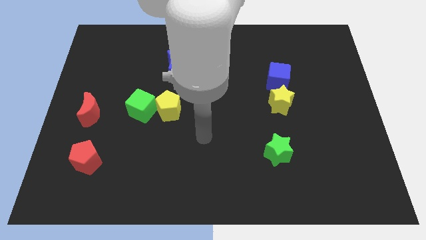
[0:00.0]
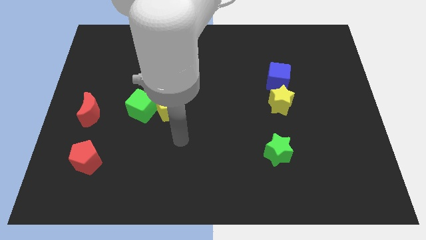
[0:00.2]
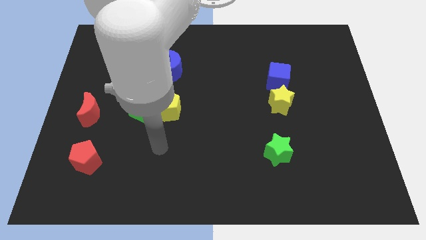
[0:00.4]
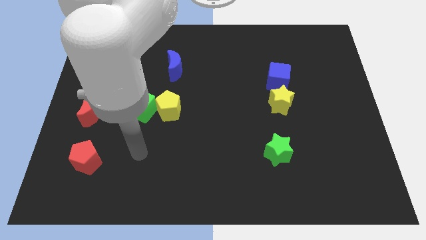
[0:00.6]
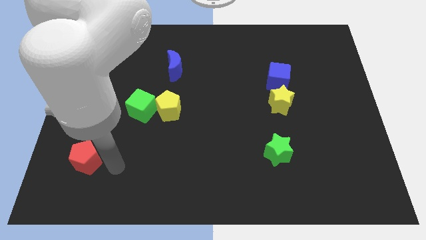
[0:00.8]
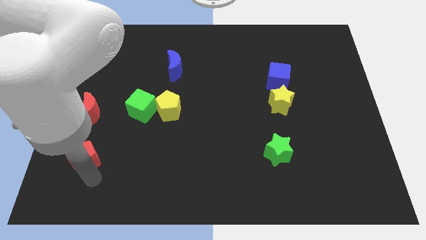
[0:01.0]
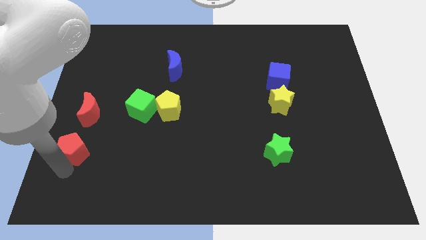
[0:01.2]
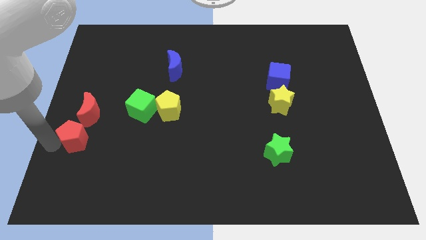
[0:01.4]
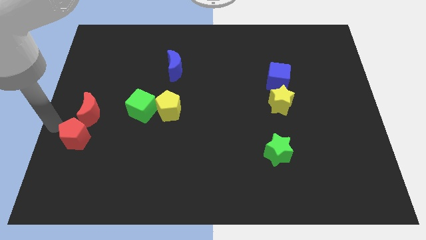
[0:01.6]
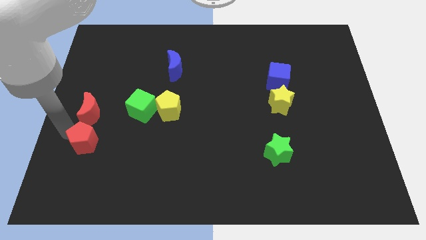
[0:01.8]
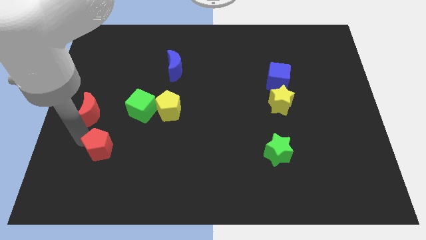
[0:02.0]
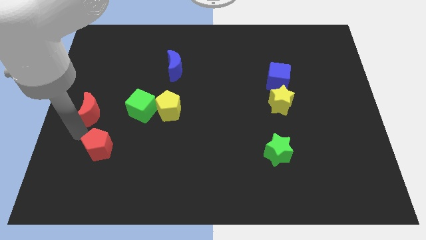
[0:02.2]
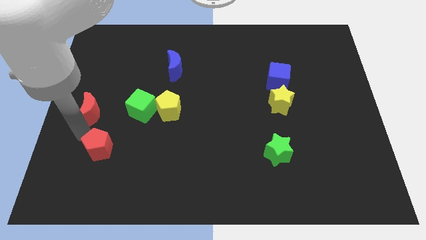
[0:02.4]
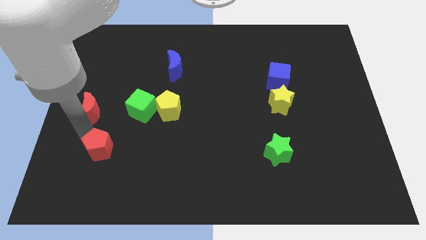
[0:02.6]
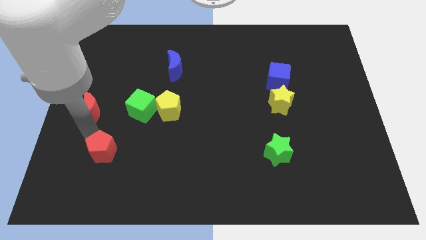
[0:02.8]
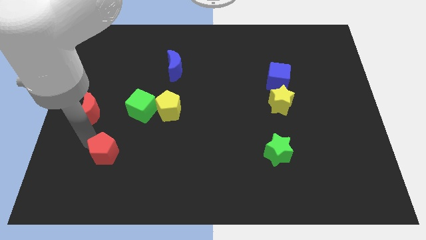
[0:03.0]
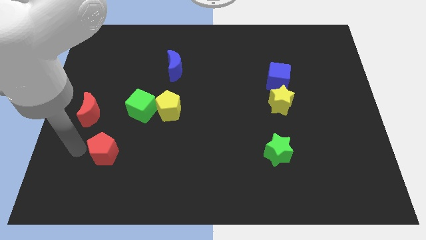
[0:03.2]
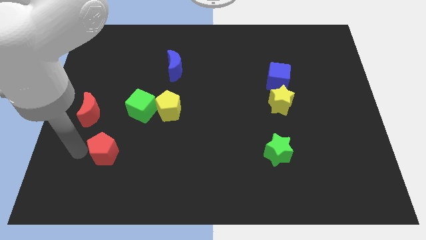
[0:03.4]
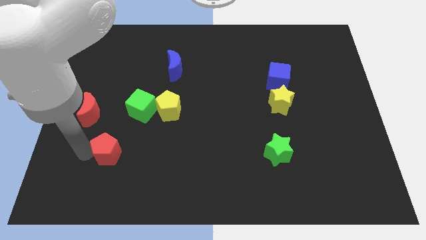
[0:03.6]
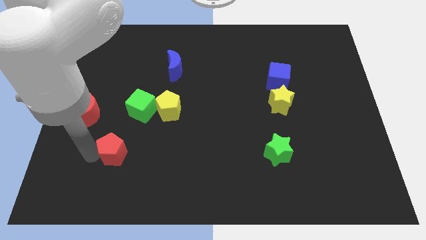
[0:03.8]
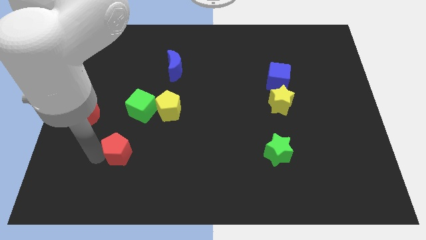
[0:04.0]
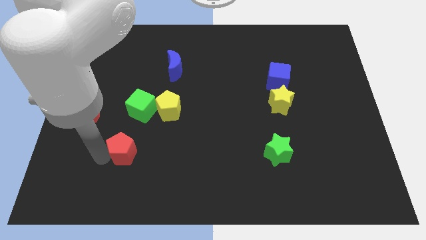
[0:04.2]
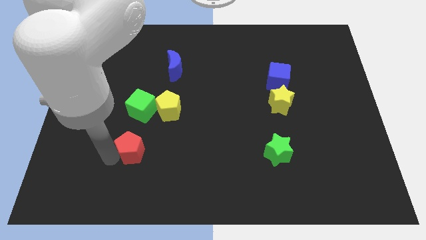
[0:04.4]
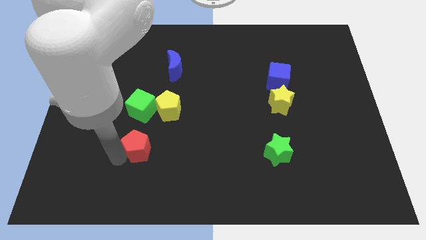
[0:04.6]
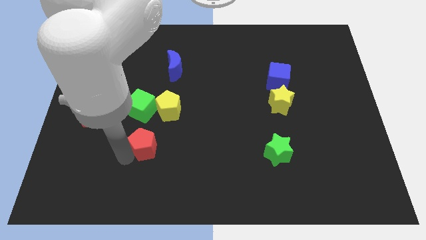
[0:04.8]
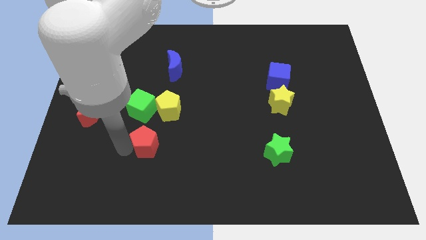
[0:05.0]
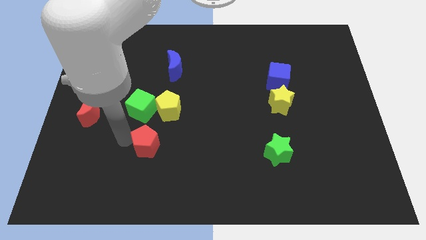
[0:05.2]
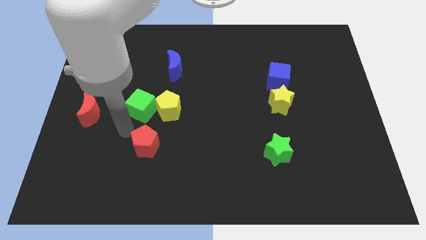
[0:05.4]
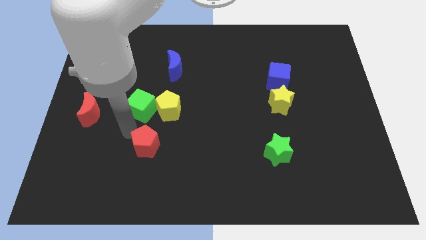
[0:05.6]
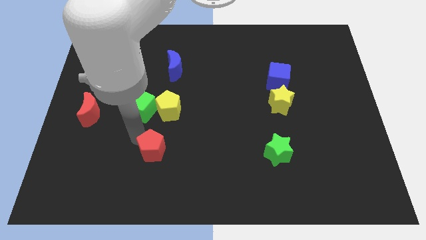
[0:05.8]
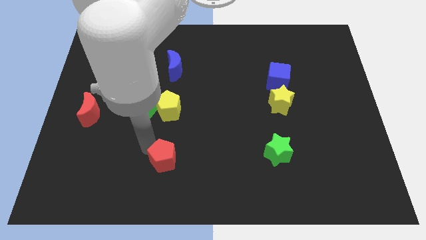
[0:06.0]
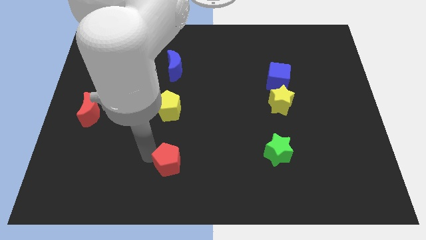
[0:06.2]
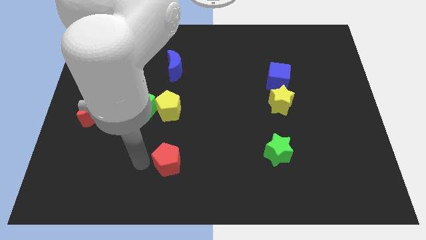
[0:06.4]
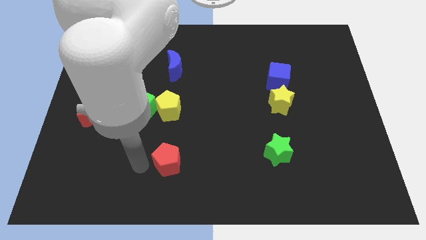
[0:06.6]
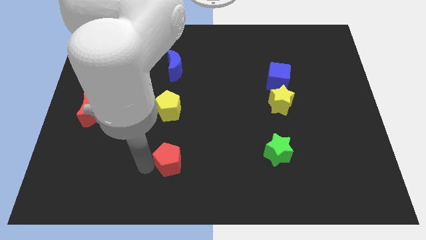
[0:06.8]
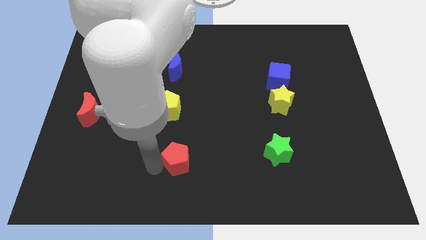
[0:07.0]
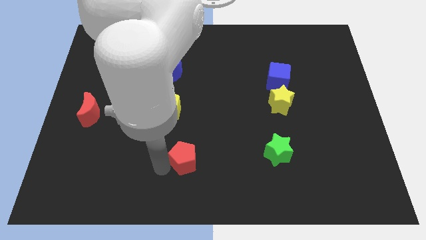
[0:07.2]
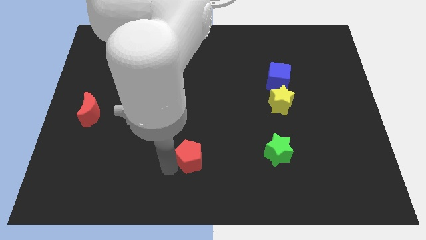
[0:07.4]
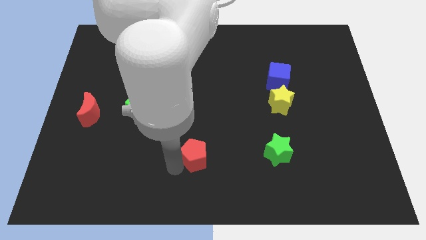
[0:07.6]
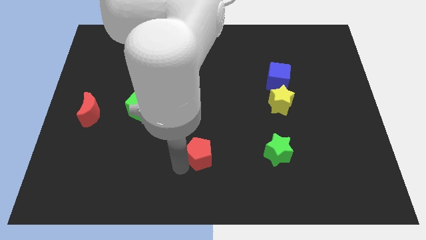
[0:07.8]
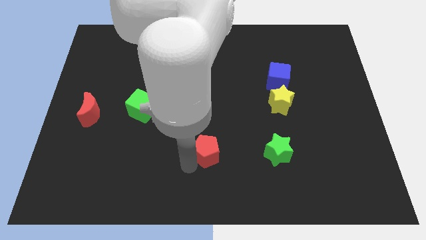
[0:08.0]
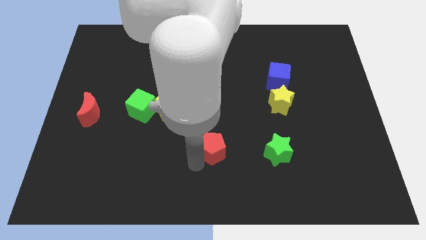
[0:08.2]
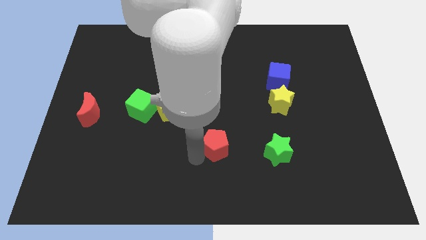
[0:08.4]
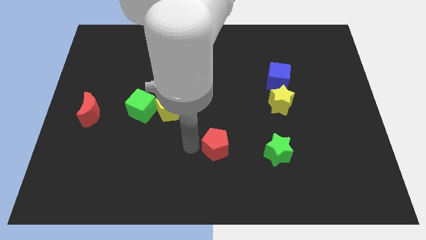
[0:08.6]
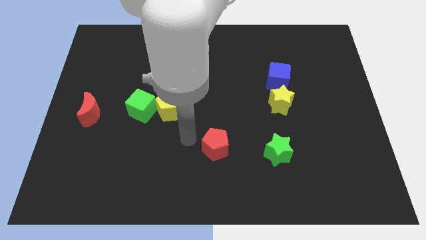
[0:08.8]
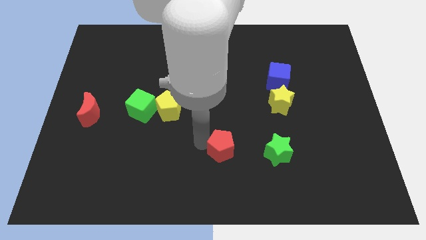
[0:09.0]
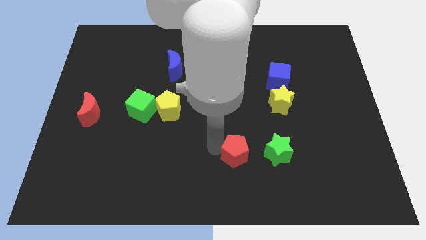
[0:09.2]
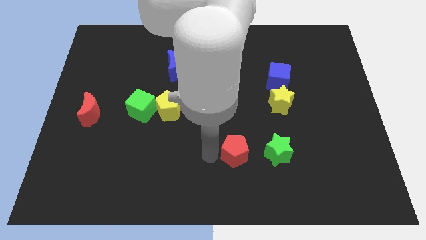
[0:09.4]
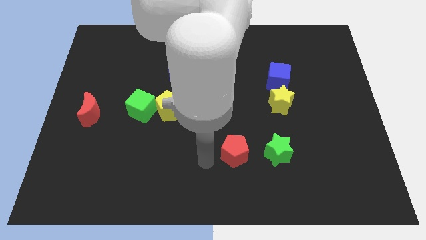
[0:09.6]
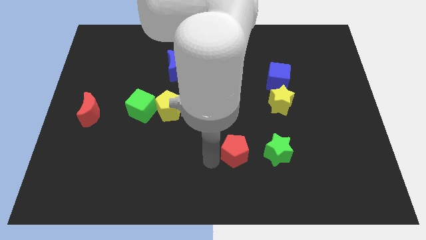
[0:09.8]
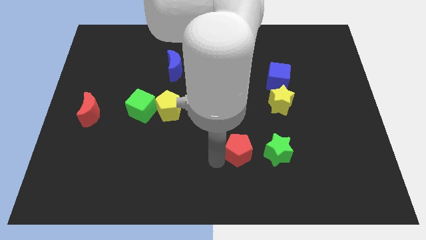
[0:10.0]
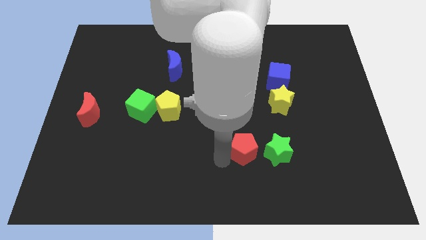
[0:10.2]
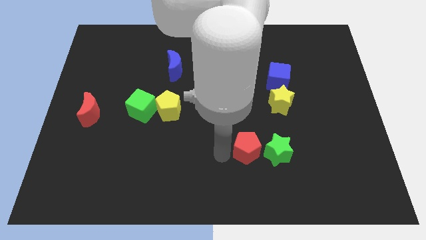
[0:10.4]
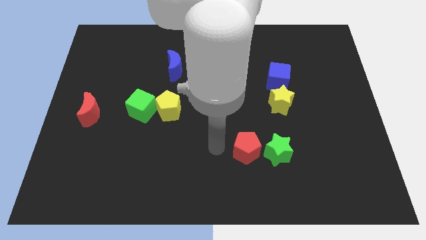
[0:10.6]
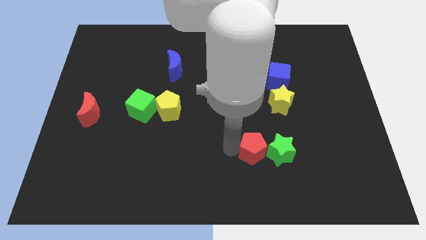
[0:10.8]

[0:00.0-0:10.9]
put the red pentagon close to the green star

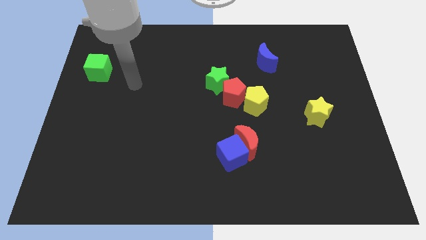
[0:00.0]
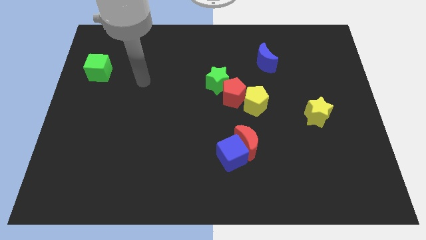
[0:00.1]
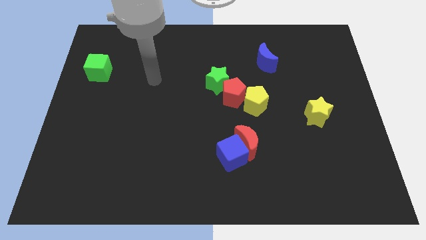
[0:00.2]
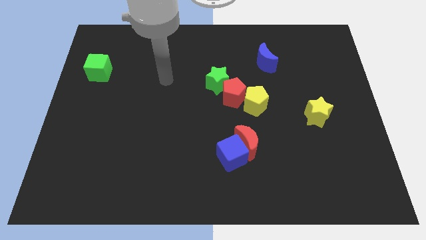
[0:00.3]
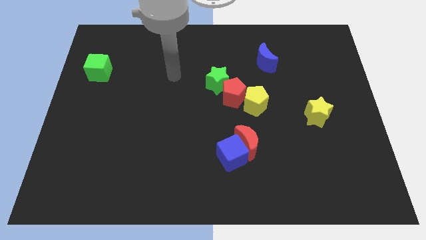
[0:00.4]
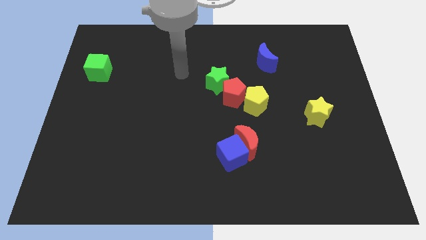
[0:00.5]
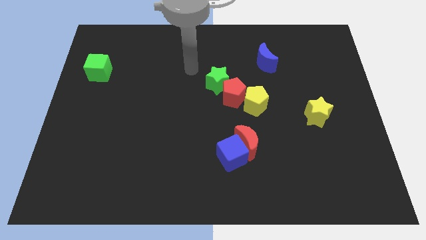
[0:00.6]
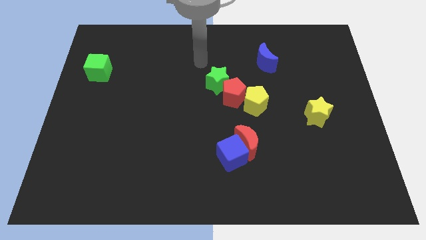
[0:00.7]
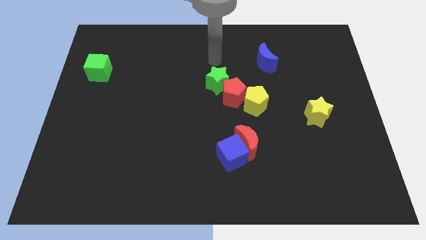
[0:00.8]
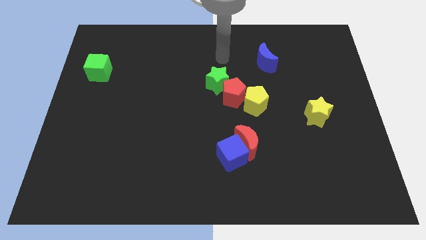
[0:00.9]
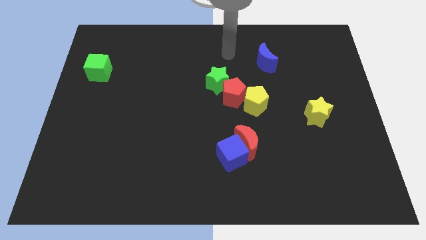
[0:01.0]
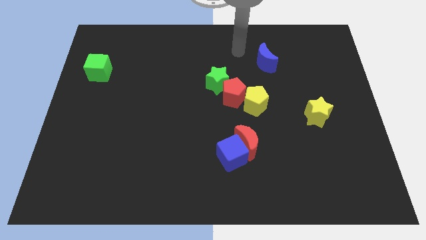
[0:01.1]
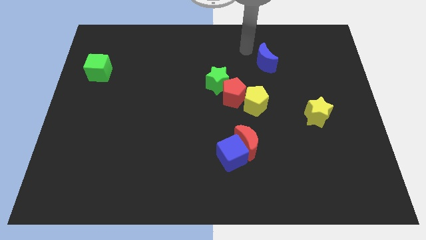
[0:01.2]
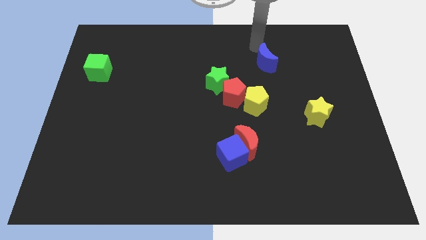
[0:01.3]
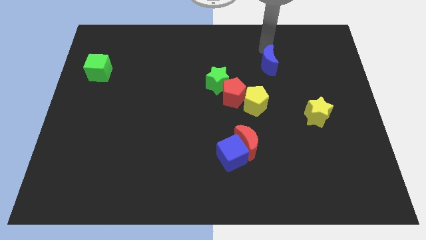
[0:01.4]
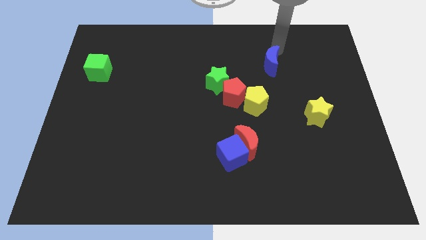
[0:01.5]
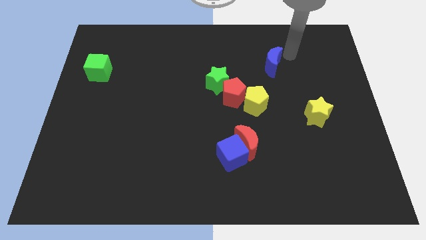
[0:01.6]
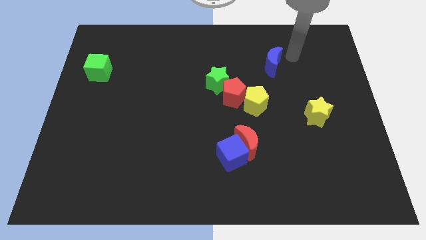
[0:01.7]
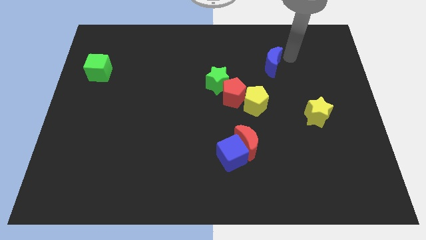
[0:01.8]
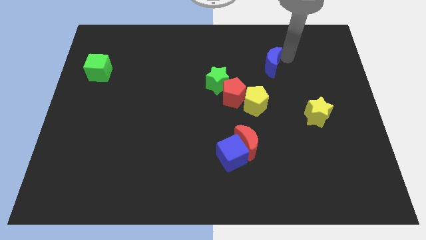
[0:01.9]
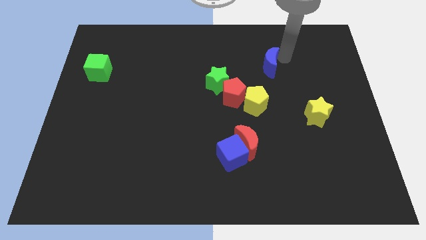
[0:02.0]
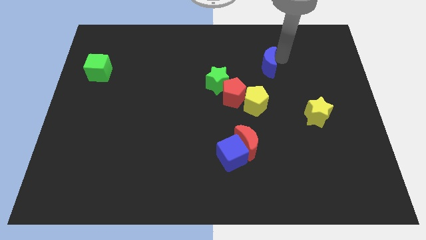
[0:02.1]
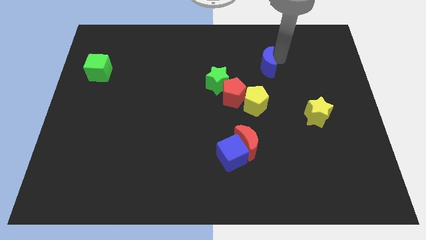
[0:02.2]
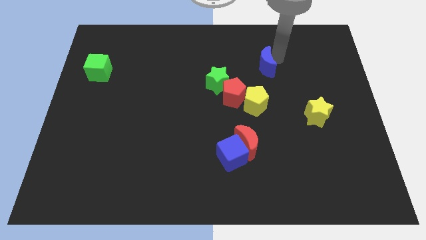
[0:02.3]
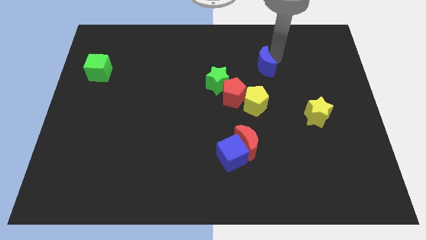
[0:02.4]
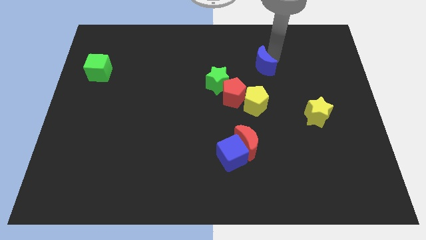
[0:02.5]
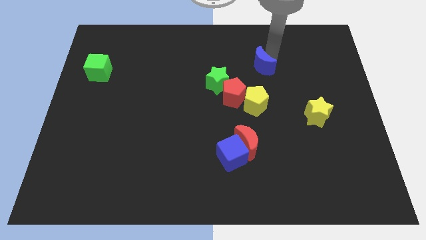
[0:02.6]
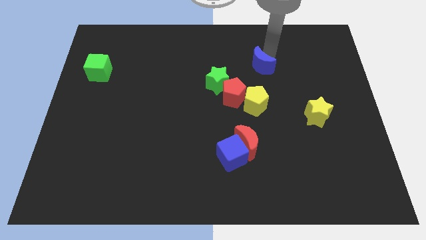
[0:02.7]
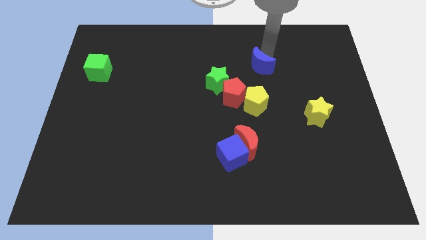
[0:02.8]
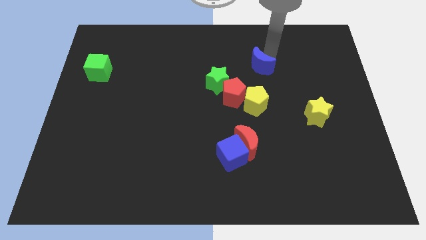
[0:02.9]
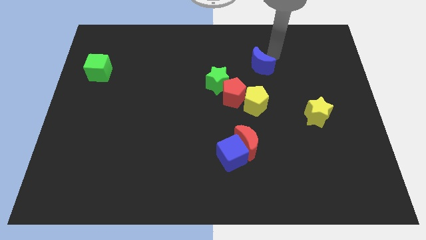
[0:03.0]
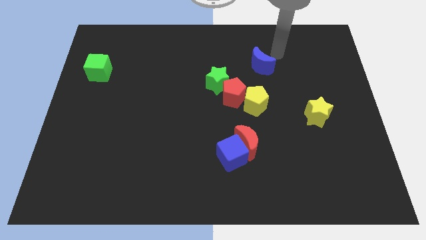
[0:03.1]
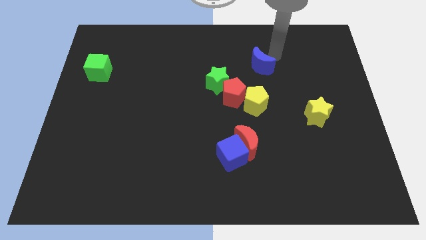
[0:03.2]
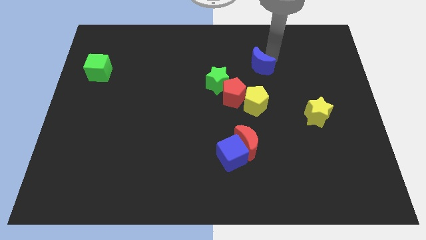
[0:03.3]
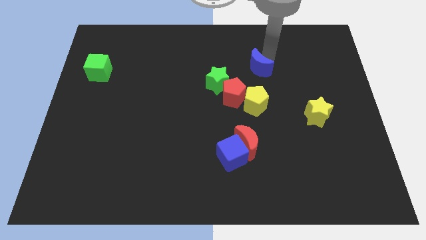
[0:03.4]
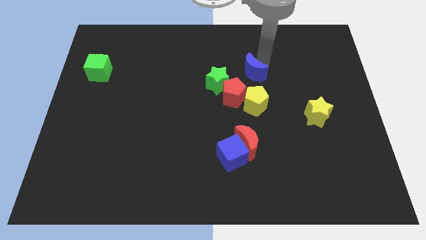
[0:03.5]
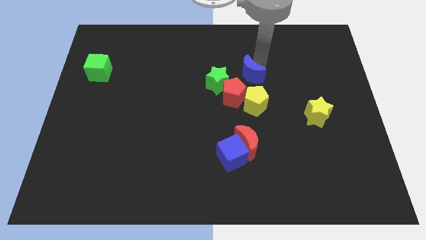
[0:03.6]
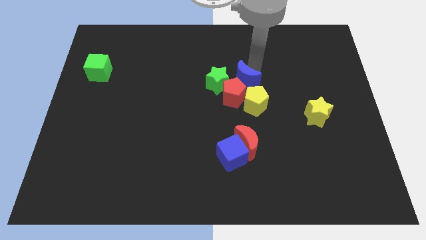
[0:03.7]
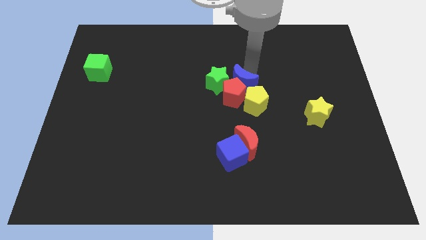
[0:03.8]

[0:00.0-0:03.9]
put the blue moon towards the red pentagon
